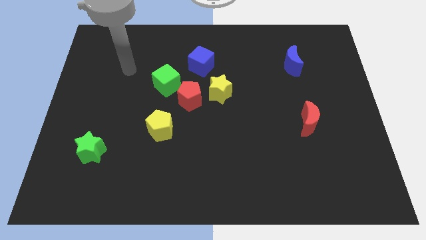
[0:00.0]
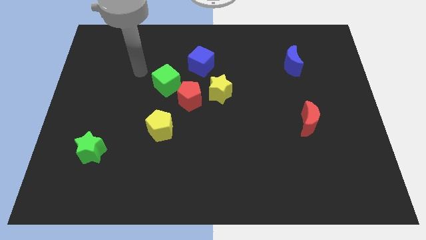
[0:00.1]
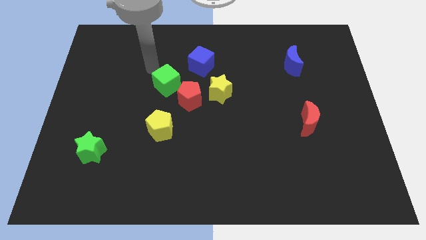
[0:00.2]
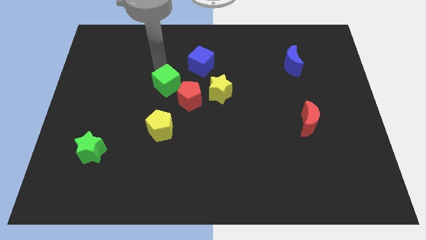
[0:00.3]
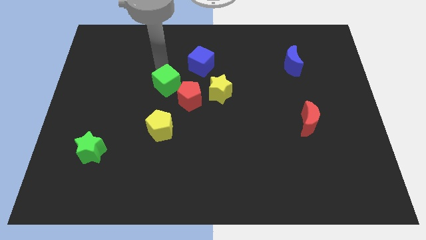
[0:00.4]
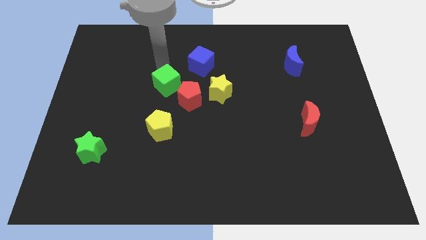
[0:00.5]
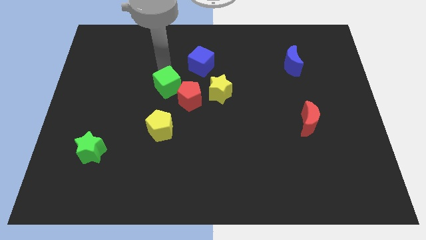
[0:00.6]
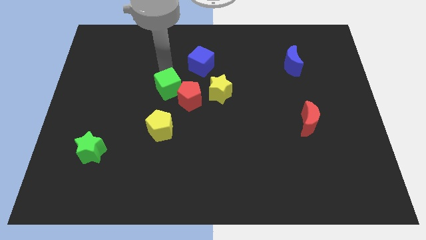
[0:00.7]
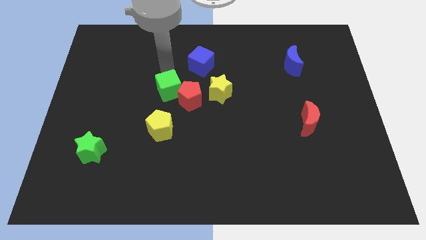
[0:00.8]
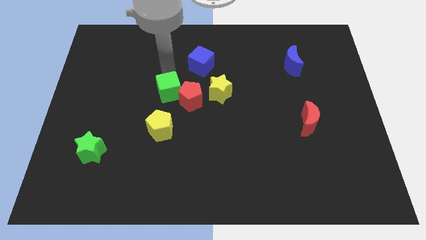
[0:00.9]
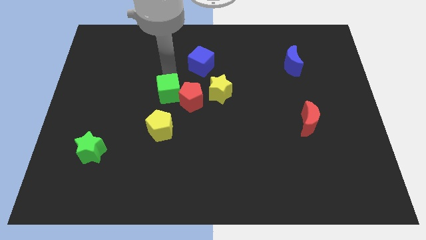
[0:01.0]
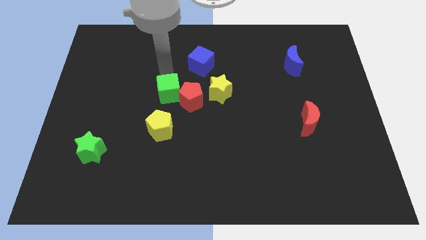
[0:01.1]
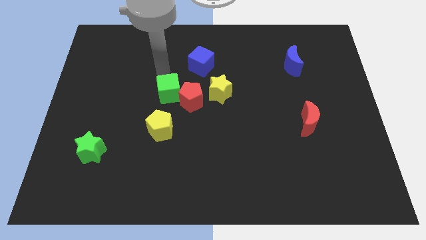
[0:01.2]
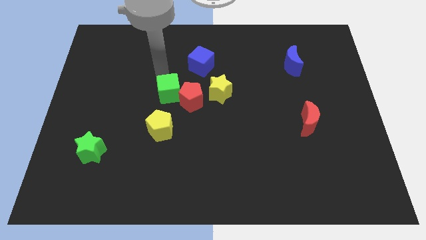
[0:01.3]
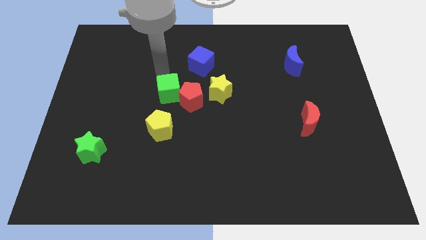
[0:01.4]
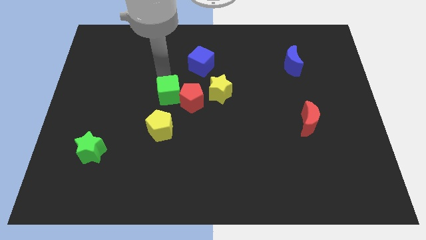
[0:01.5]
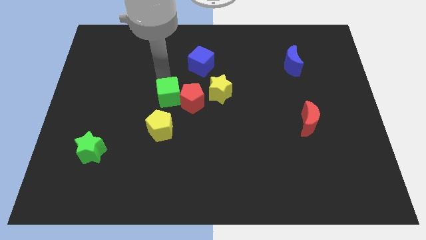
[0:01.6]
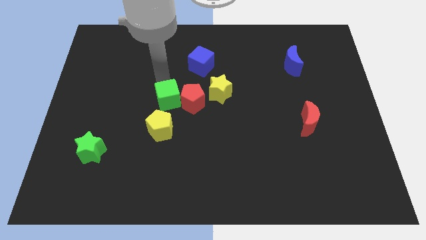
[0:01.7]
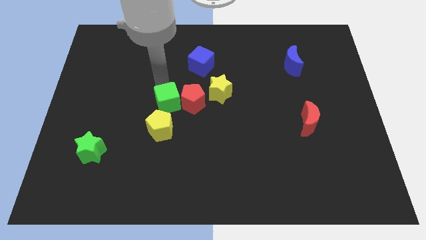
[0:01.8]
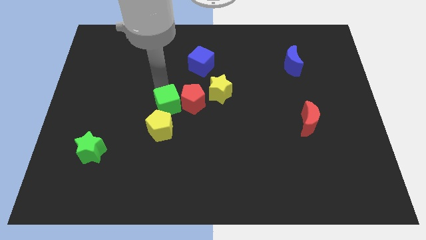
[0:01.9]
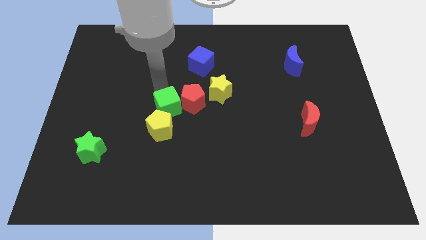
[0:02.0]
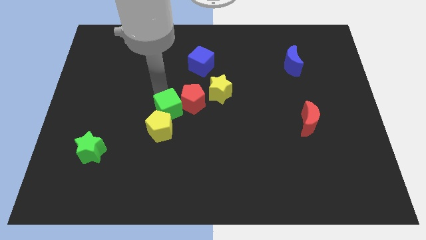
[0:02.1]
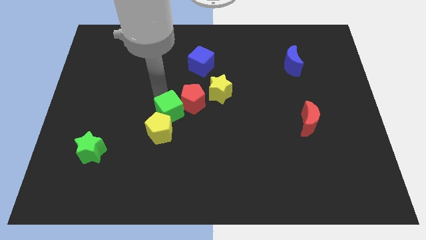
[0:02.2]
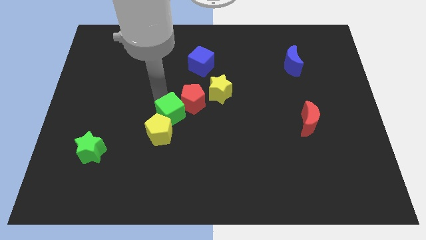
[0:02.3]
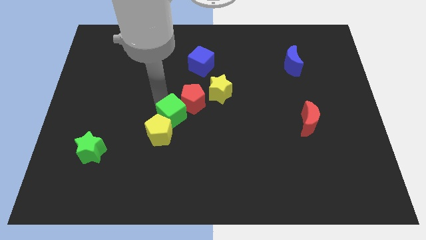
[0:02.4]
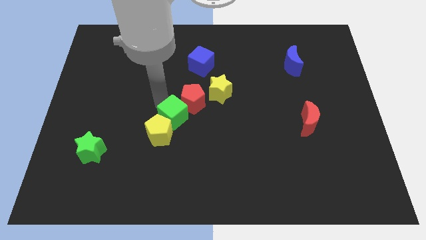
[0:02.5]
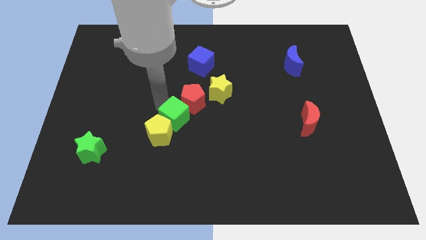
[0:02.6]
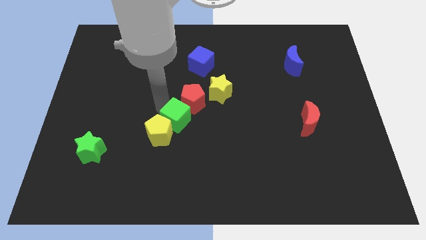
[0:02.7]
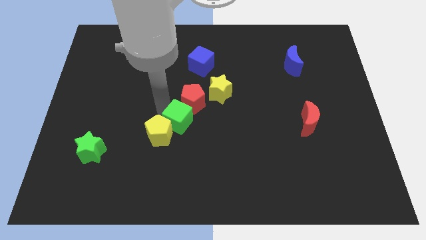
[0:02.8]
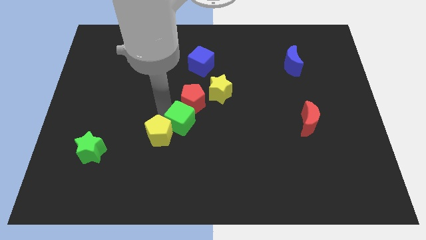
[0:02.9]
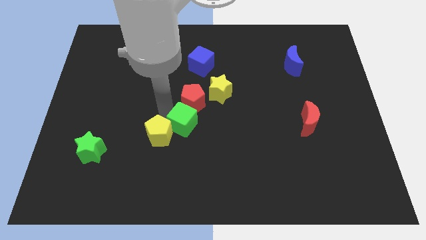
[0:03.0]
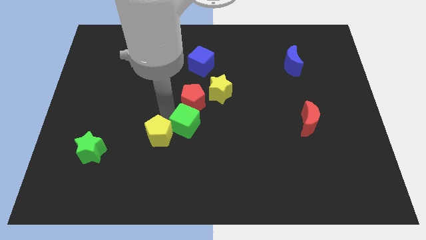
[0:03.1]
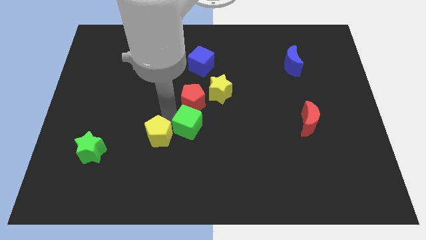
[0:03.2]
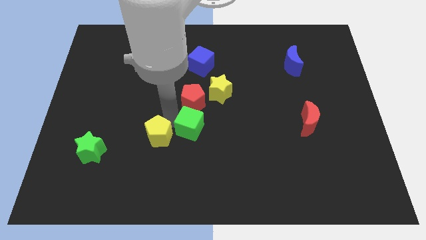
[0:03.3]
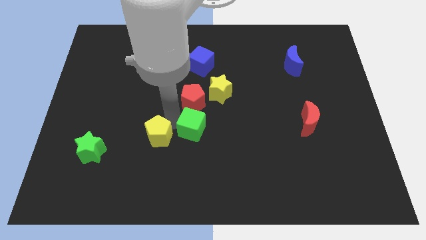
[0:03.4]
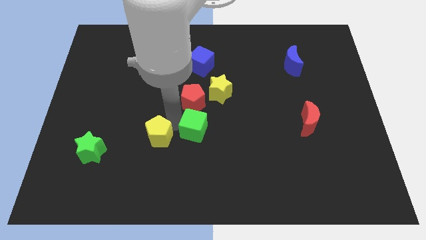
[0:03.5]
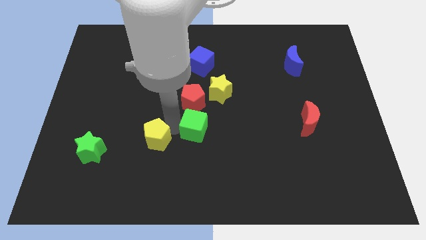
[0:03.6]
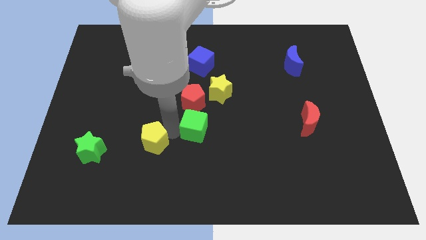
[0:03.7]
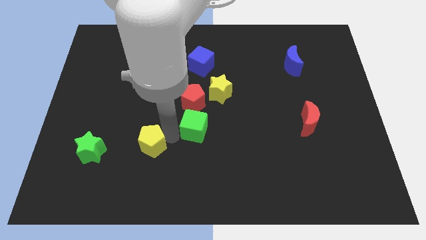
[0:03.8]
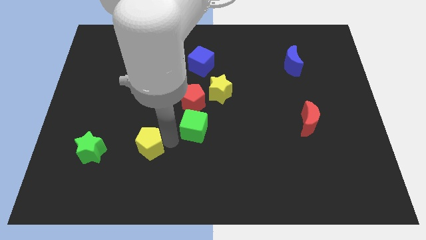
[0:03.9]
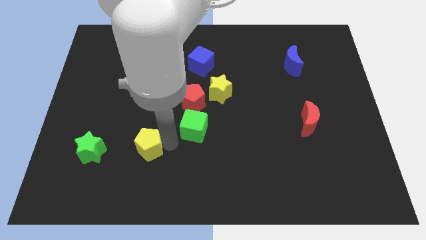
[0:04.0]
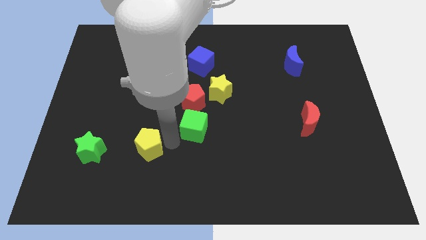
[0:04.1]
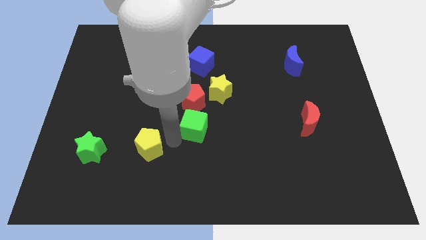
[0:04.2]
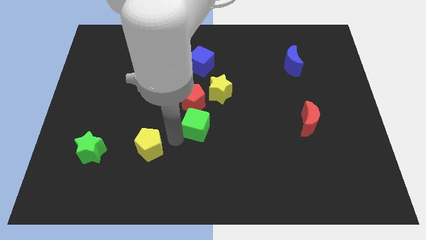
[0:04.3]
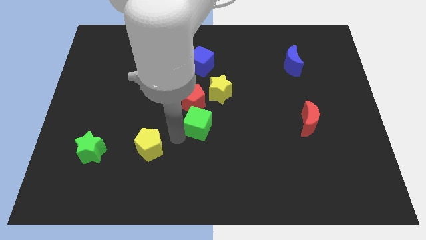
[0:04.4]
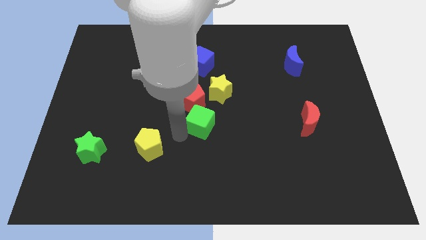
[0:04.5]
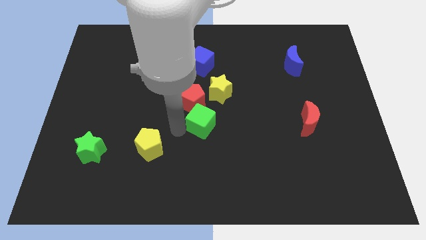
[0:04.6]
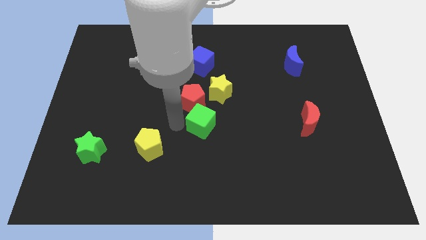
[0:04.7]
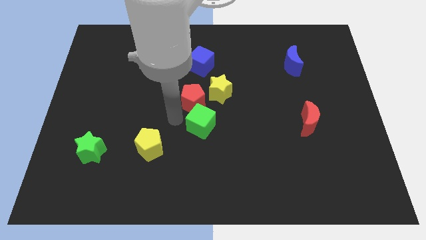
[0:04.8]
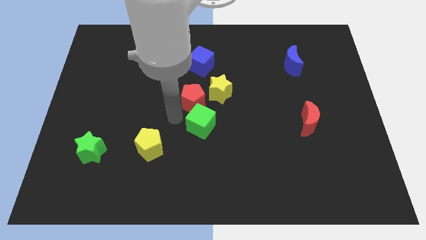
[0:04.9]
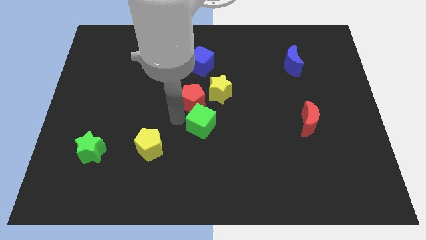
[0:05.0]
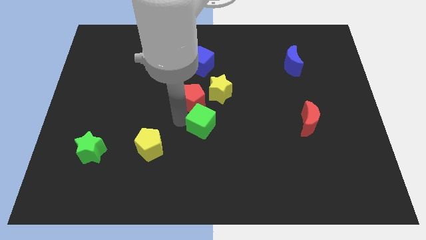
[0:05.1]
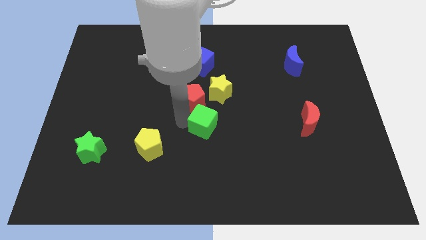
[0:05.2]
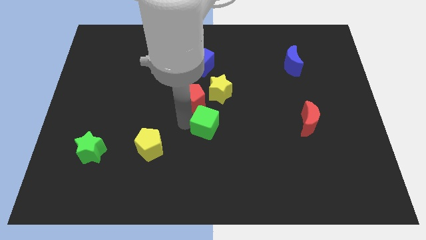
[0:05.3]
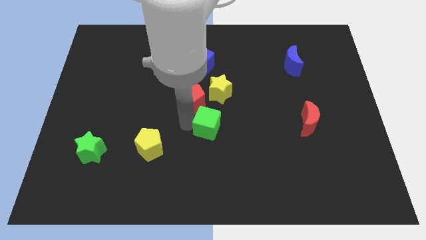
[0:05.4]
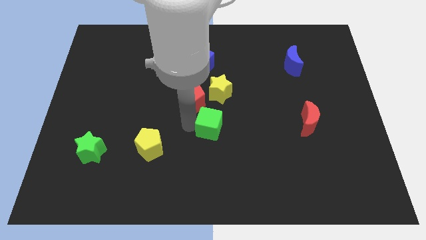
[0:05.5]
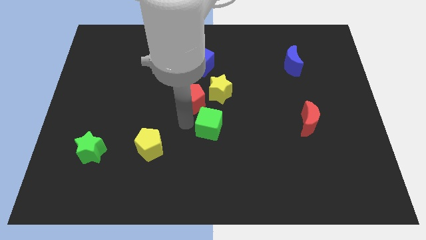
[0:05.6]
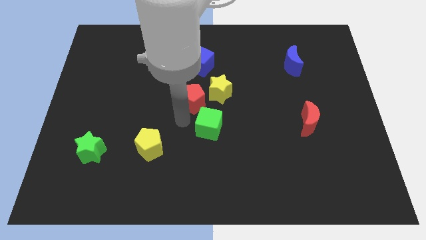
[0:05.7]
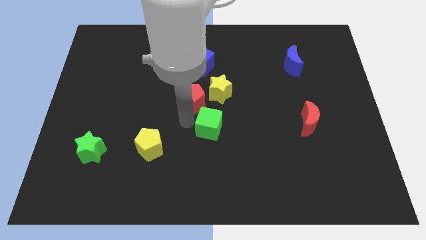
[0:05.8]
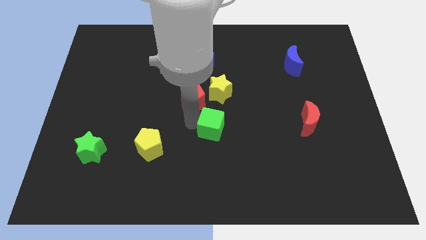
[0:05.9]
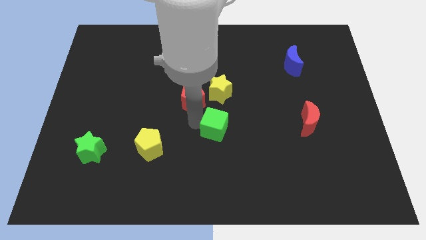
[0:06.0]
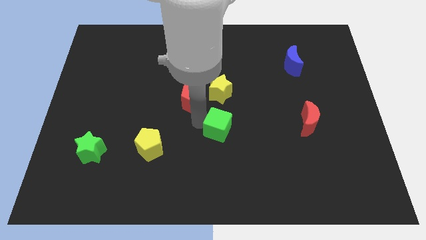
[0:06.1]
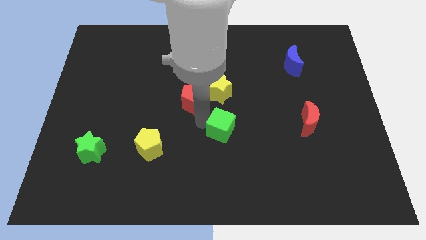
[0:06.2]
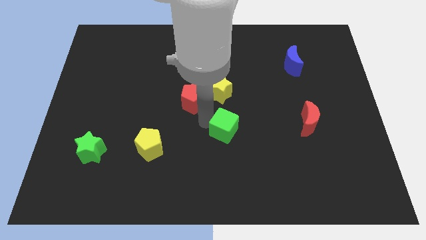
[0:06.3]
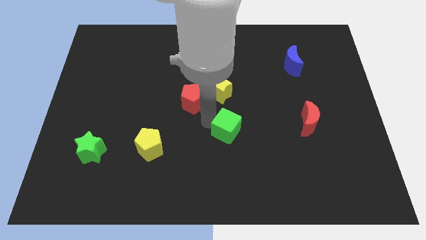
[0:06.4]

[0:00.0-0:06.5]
push the green cube down and to the right diagonally

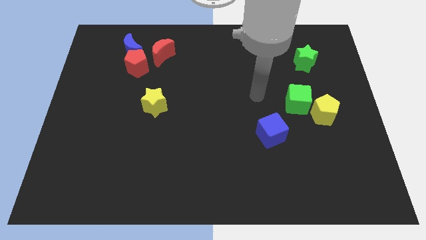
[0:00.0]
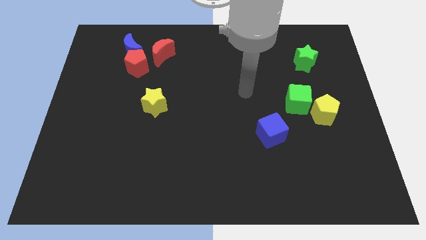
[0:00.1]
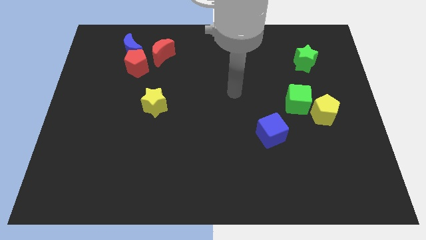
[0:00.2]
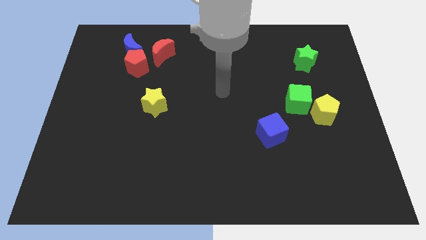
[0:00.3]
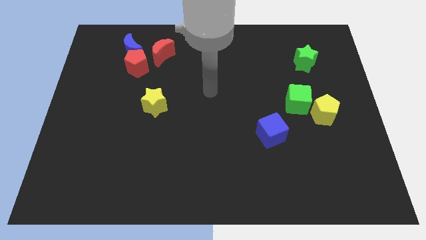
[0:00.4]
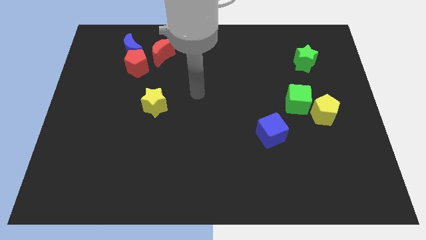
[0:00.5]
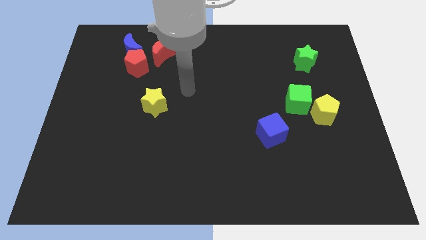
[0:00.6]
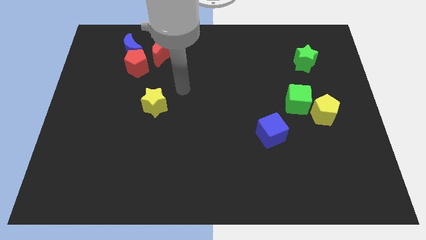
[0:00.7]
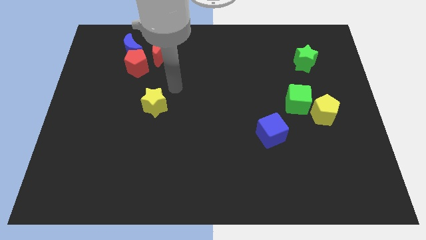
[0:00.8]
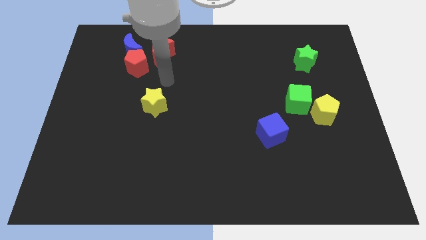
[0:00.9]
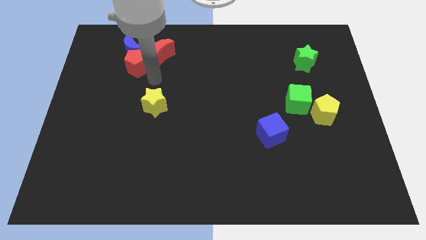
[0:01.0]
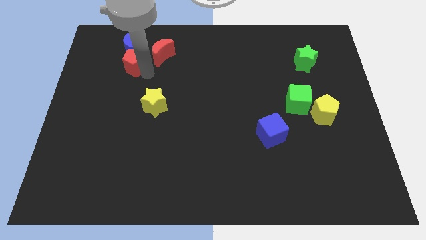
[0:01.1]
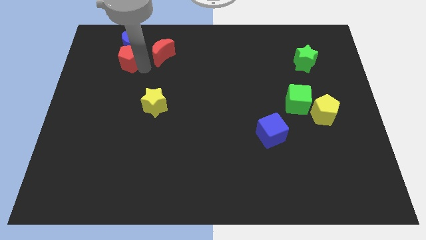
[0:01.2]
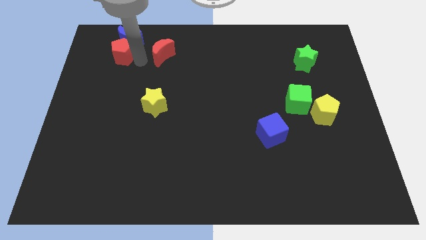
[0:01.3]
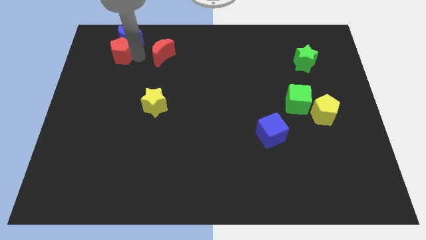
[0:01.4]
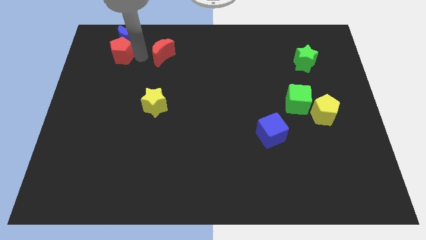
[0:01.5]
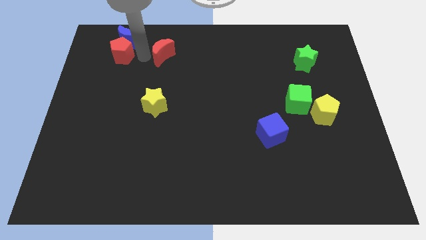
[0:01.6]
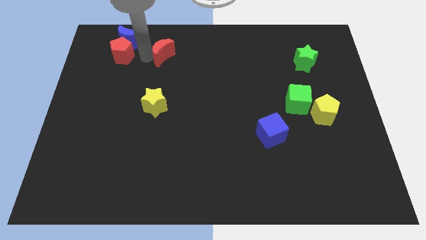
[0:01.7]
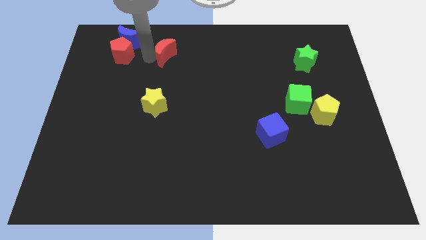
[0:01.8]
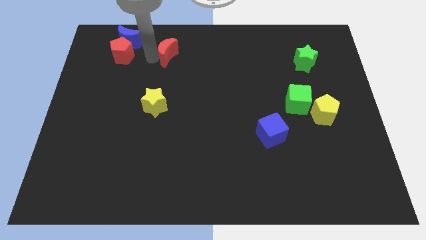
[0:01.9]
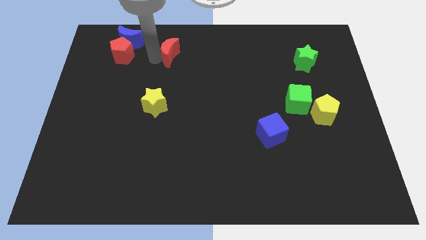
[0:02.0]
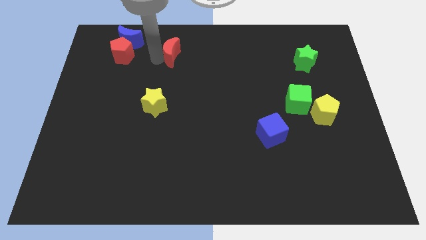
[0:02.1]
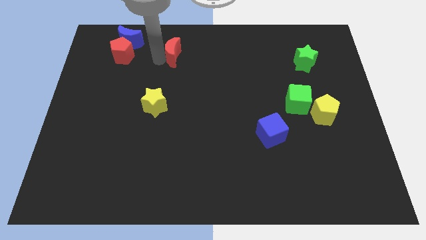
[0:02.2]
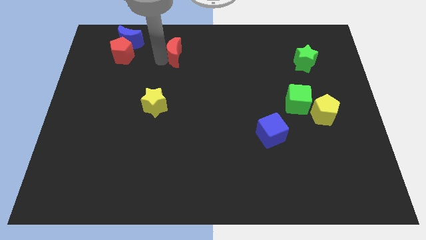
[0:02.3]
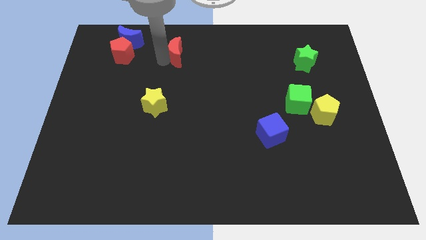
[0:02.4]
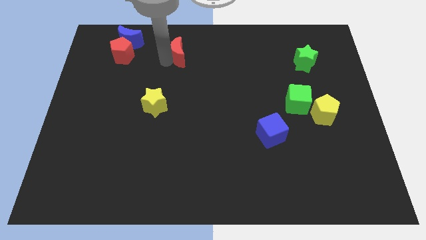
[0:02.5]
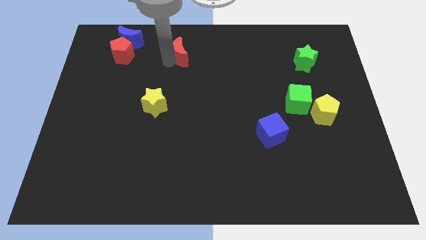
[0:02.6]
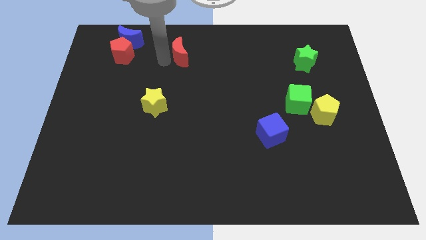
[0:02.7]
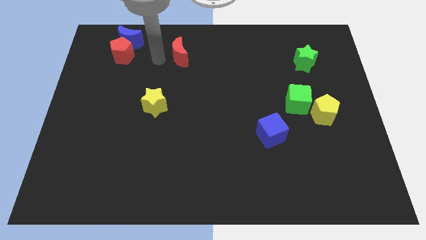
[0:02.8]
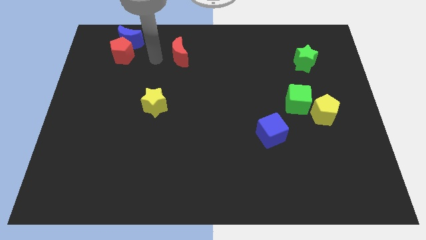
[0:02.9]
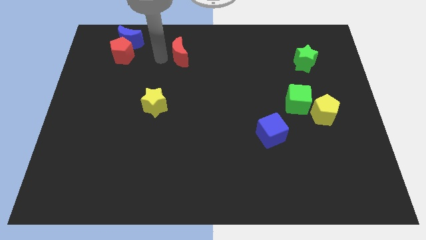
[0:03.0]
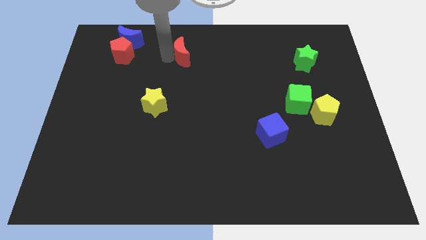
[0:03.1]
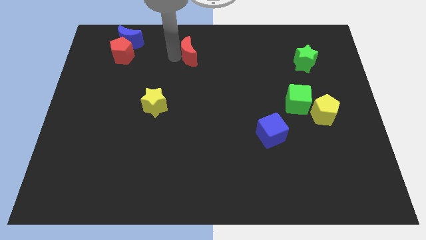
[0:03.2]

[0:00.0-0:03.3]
move the red moon a little bit to the right
